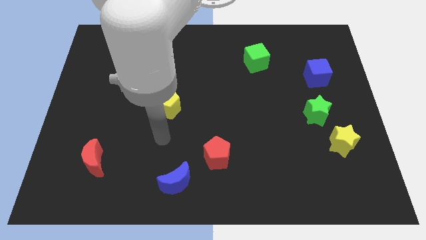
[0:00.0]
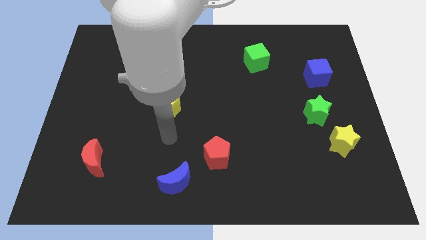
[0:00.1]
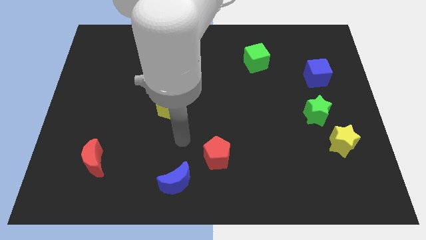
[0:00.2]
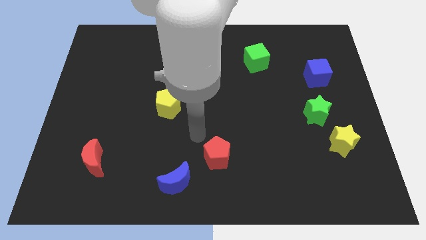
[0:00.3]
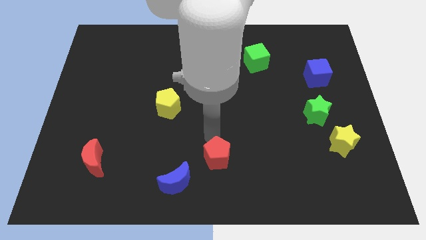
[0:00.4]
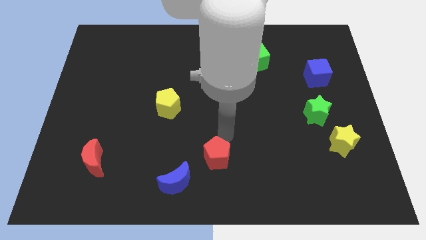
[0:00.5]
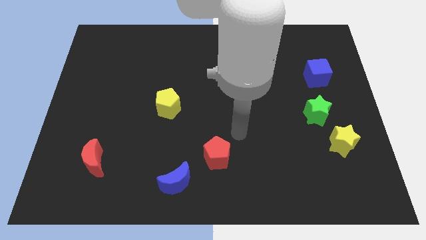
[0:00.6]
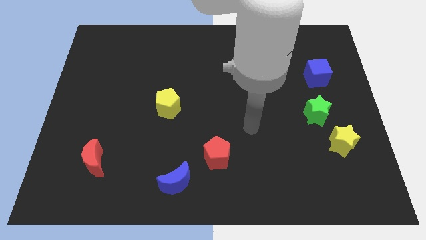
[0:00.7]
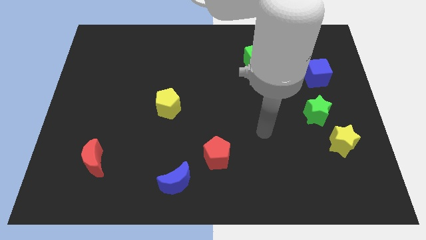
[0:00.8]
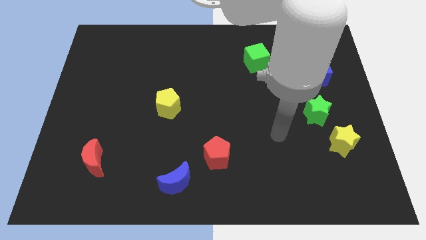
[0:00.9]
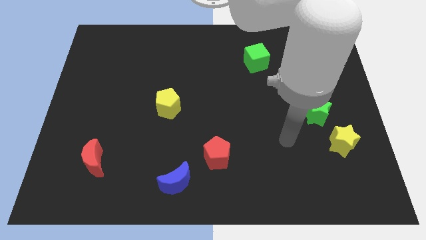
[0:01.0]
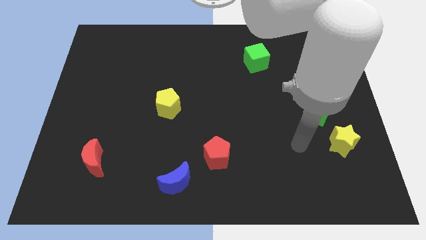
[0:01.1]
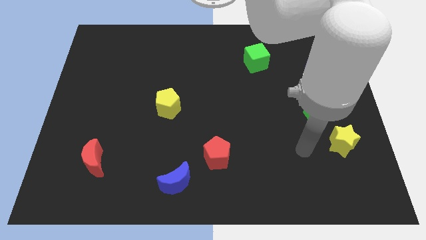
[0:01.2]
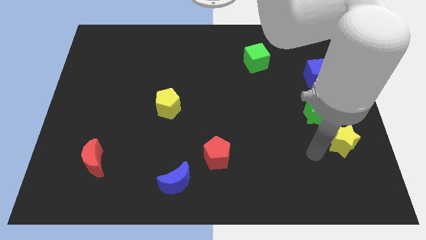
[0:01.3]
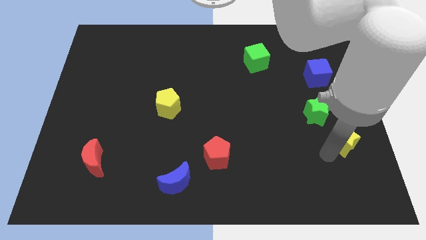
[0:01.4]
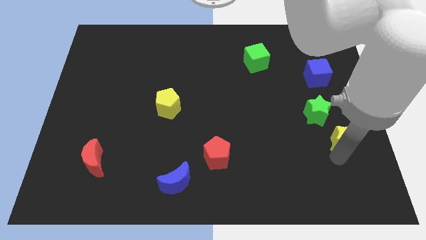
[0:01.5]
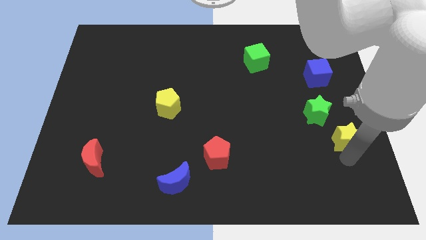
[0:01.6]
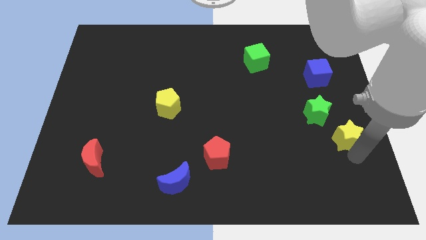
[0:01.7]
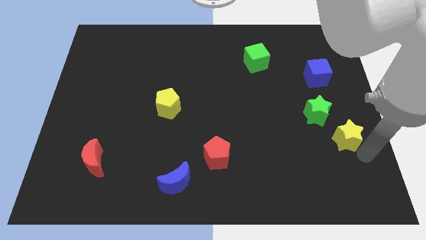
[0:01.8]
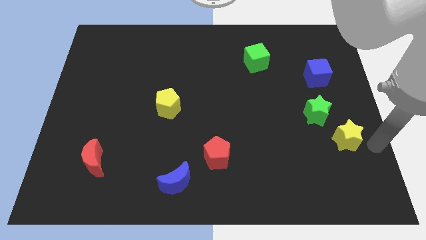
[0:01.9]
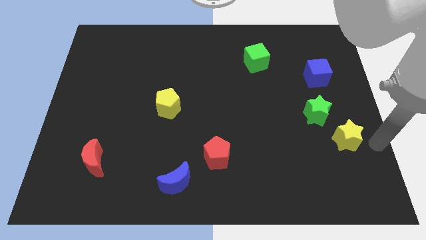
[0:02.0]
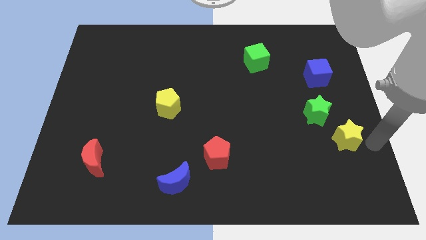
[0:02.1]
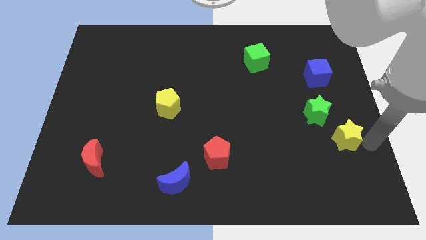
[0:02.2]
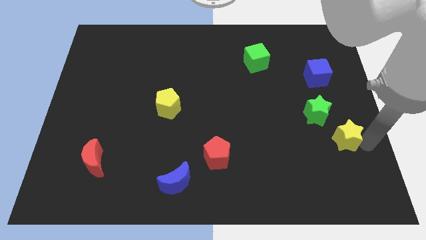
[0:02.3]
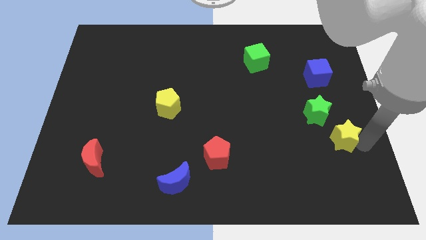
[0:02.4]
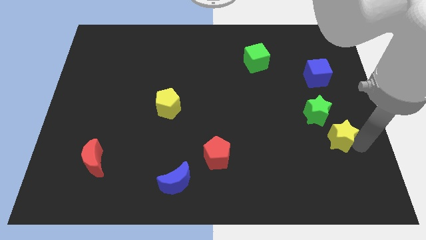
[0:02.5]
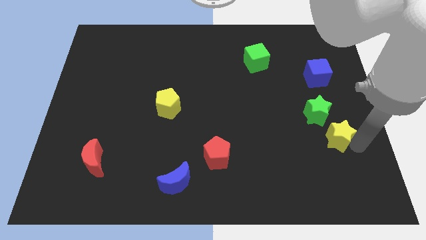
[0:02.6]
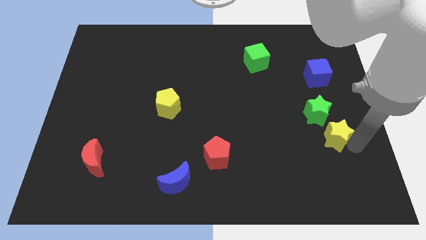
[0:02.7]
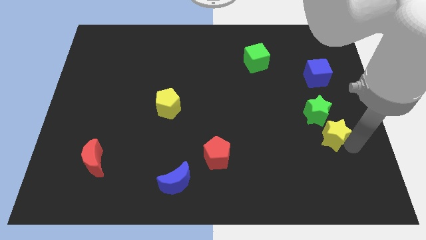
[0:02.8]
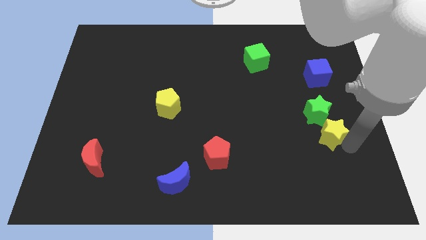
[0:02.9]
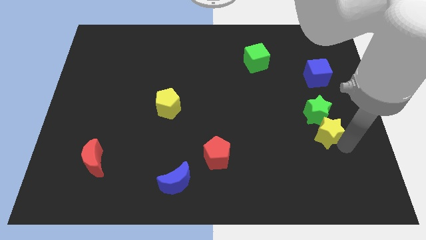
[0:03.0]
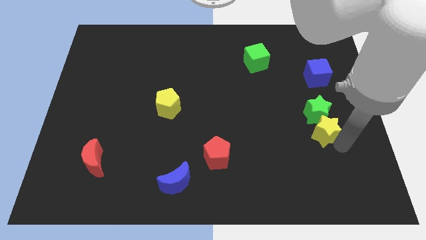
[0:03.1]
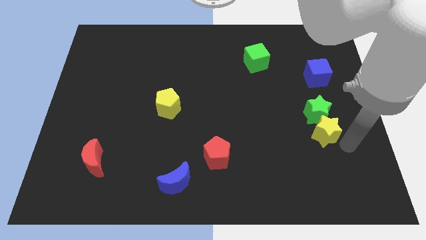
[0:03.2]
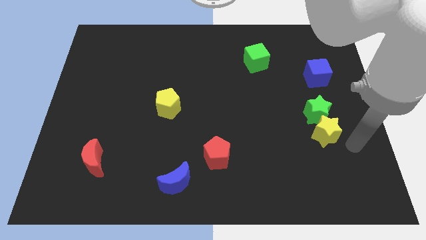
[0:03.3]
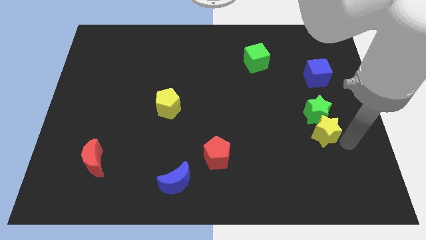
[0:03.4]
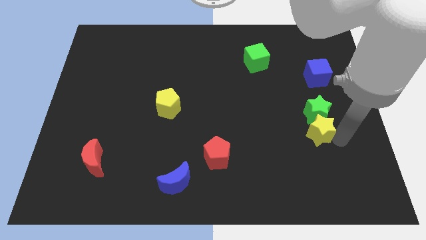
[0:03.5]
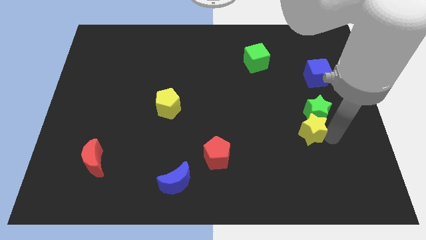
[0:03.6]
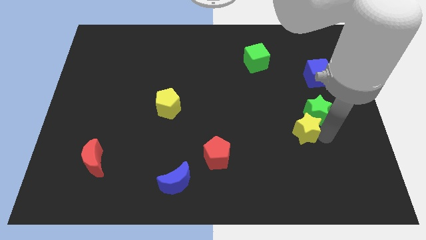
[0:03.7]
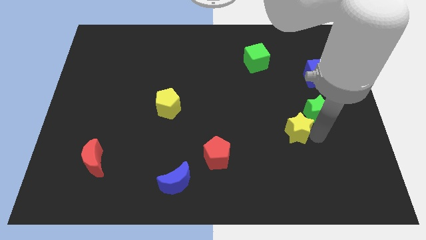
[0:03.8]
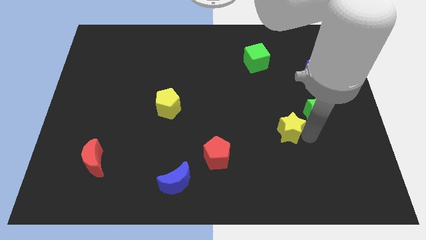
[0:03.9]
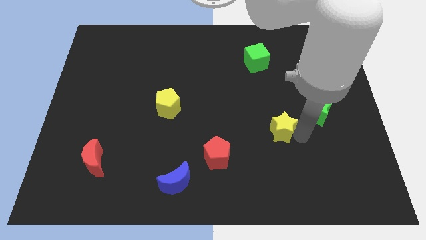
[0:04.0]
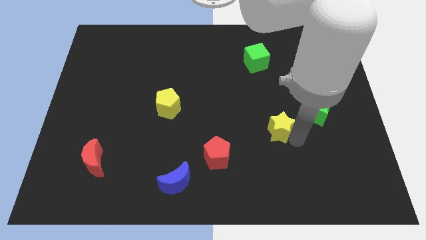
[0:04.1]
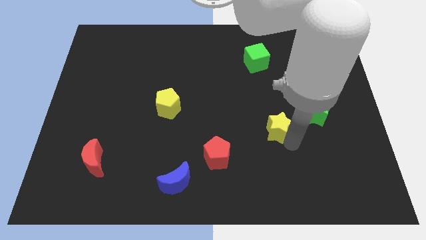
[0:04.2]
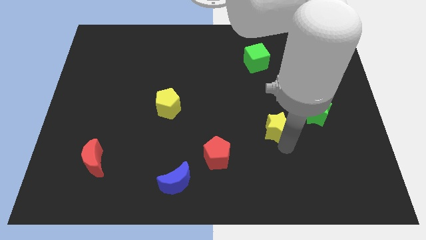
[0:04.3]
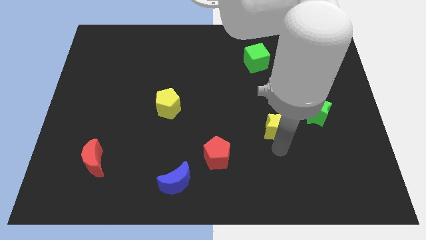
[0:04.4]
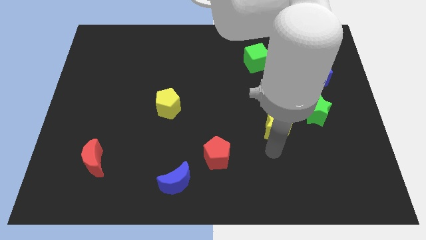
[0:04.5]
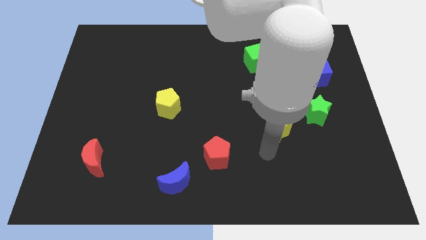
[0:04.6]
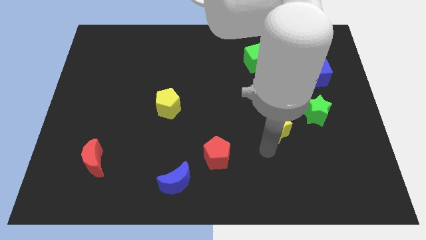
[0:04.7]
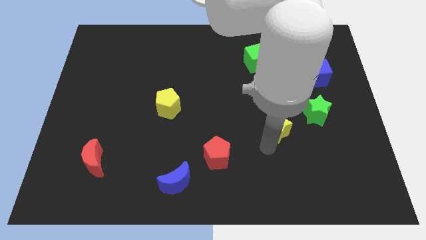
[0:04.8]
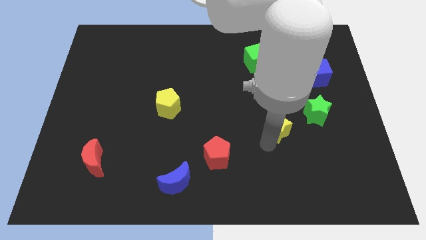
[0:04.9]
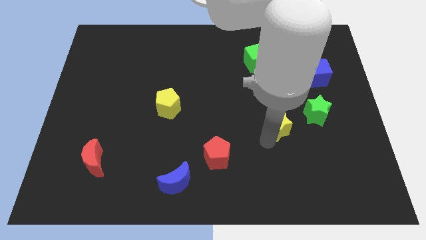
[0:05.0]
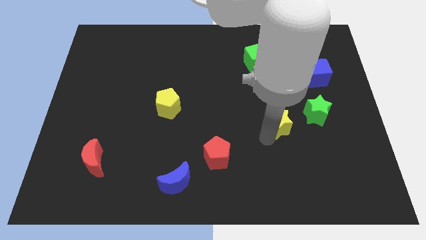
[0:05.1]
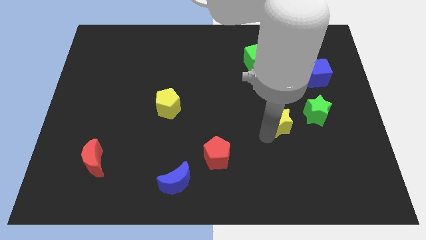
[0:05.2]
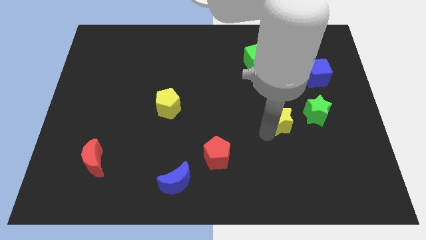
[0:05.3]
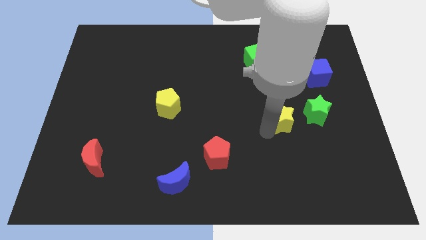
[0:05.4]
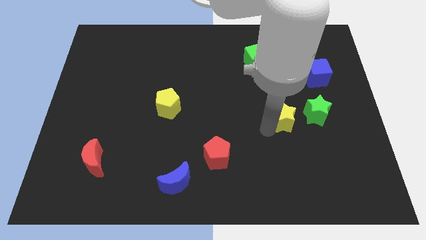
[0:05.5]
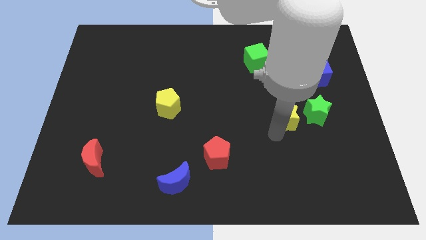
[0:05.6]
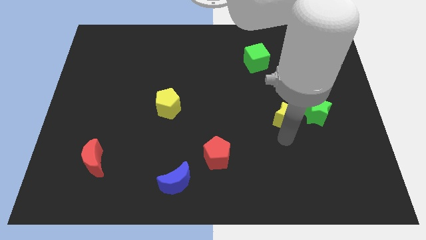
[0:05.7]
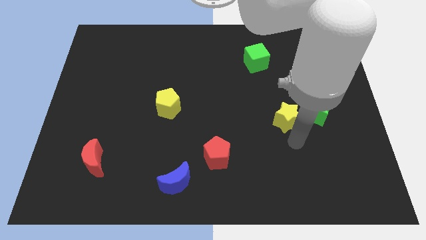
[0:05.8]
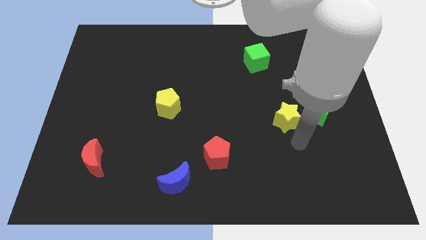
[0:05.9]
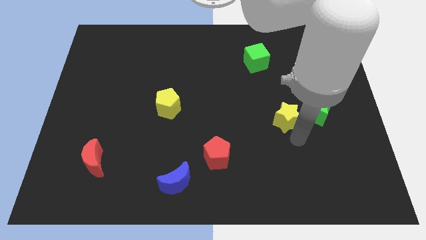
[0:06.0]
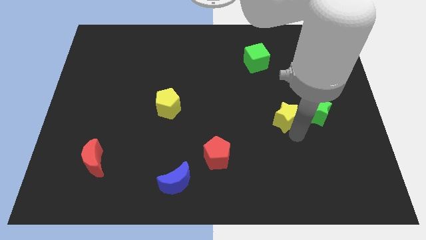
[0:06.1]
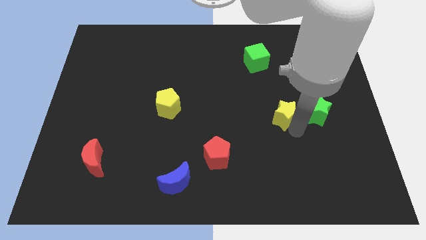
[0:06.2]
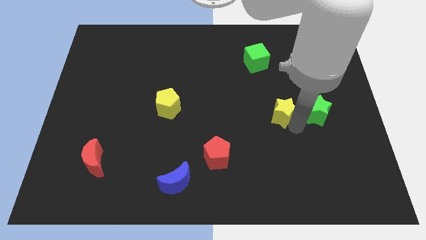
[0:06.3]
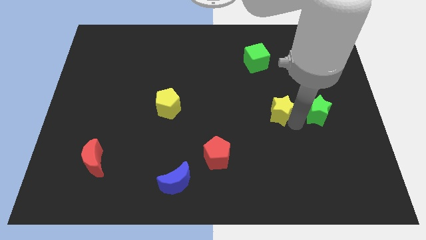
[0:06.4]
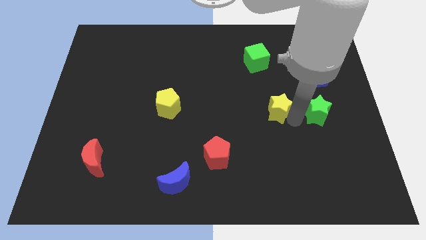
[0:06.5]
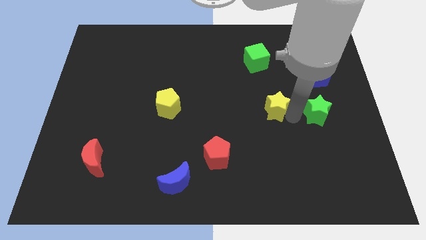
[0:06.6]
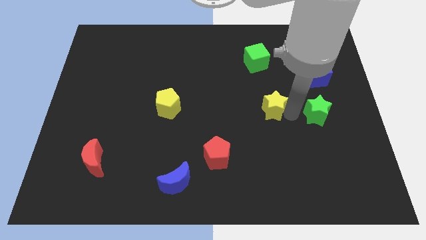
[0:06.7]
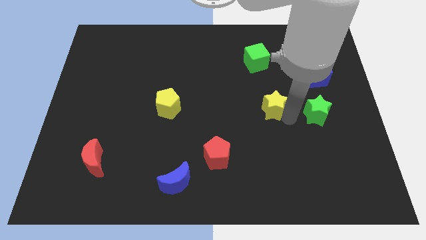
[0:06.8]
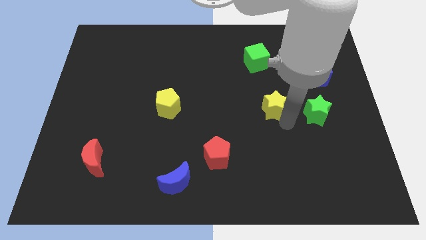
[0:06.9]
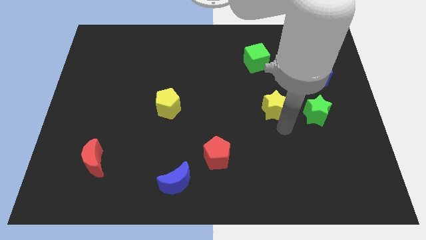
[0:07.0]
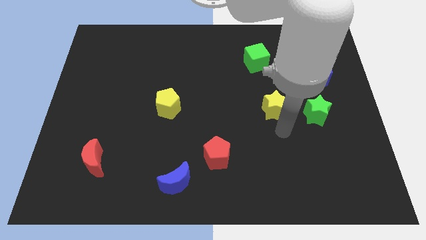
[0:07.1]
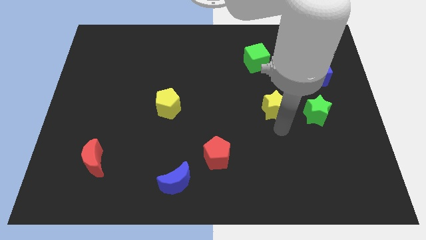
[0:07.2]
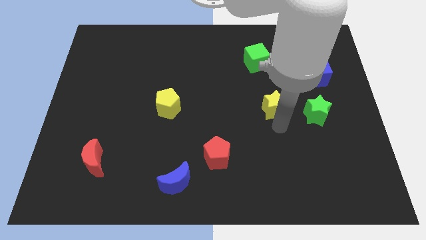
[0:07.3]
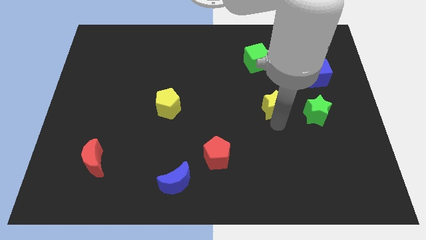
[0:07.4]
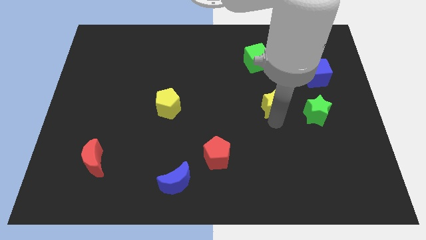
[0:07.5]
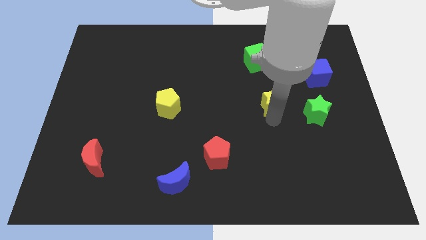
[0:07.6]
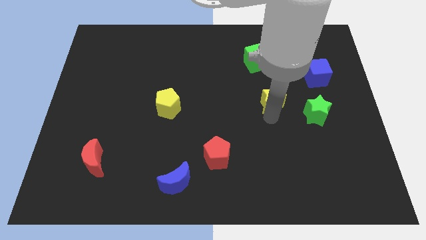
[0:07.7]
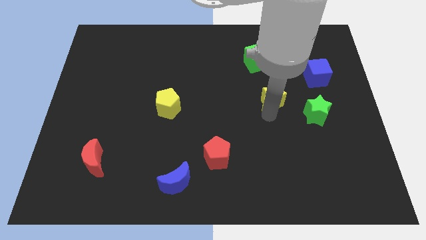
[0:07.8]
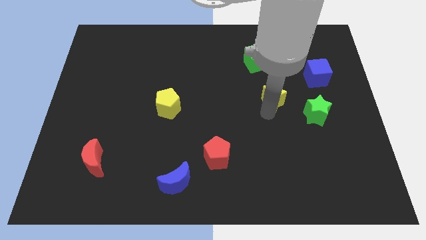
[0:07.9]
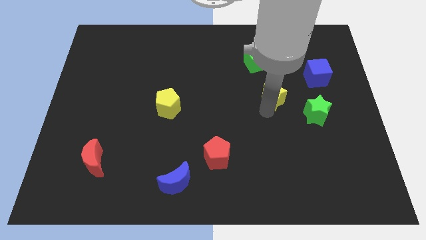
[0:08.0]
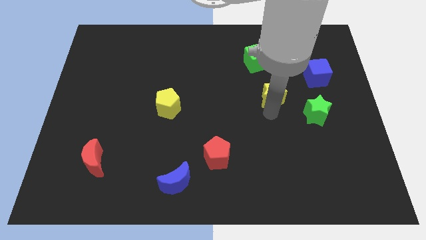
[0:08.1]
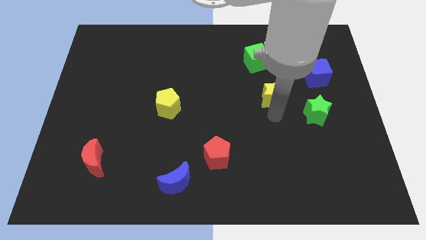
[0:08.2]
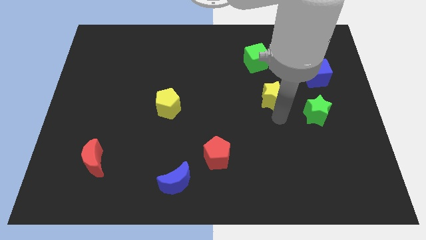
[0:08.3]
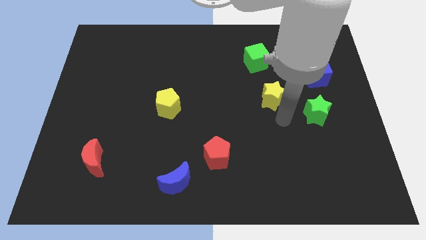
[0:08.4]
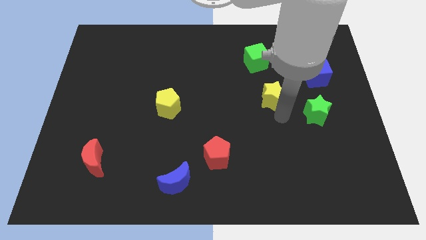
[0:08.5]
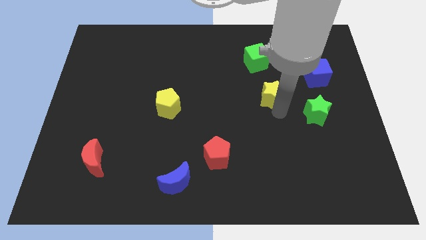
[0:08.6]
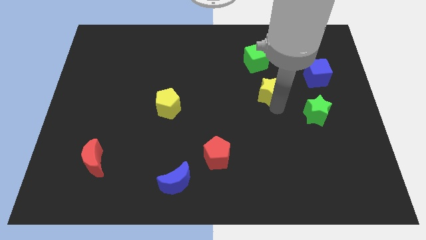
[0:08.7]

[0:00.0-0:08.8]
push the yellow star upwards and then to the left
